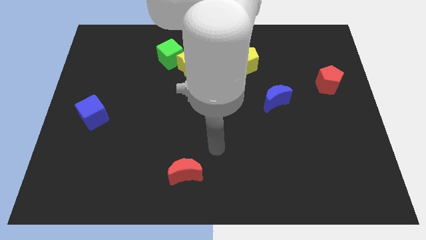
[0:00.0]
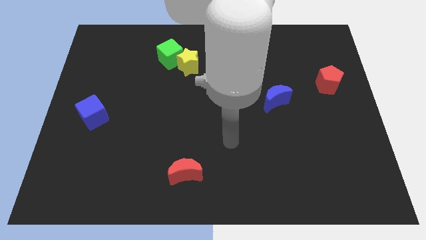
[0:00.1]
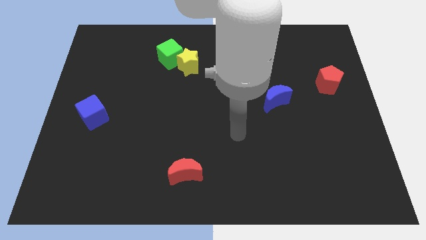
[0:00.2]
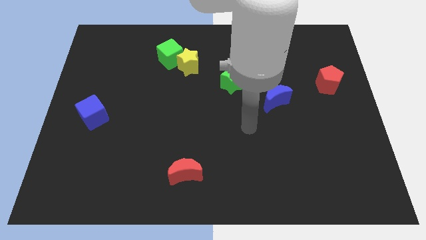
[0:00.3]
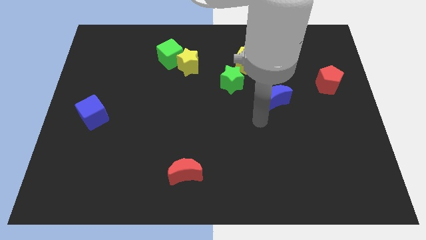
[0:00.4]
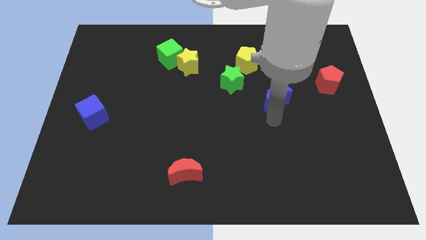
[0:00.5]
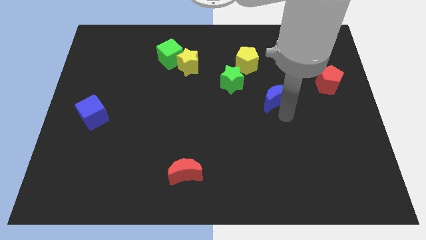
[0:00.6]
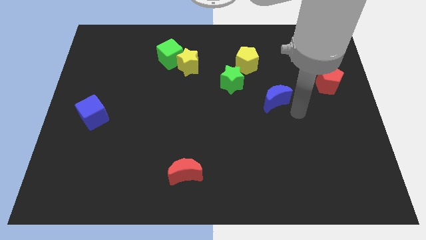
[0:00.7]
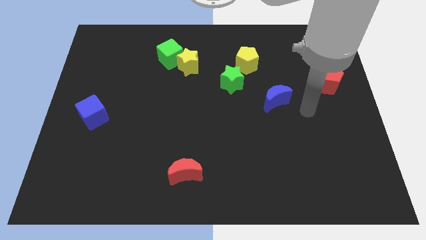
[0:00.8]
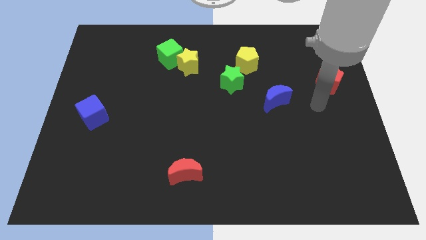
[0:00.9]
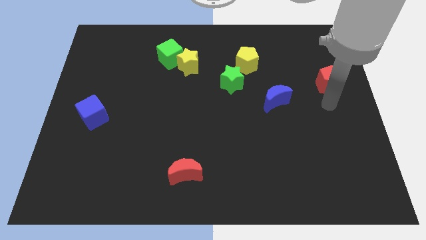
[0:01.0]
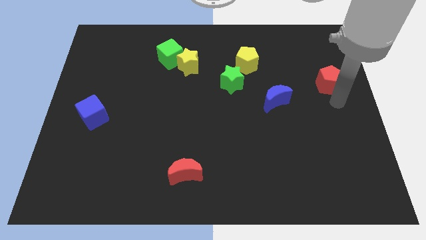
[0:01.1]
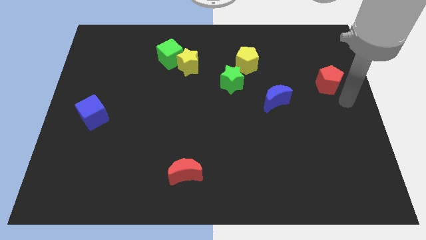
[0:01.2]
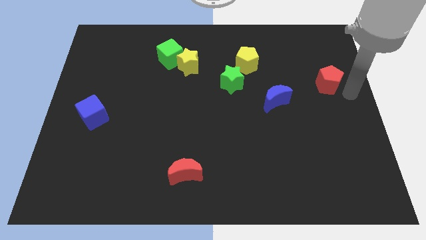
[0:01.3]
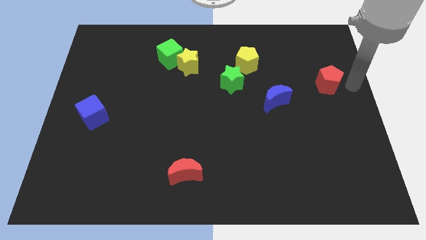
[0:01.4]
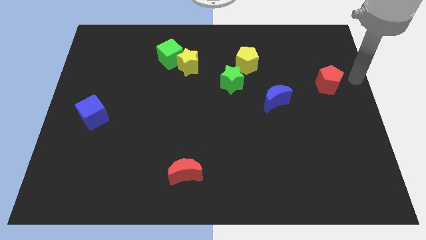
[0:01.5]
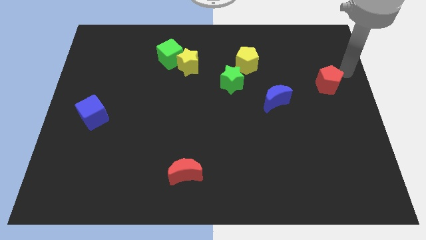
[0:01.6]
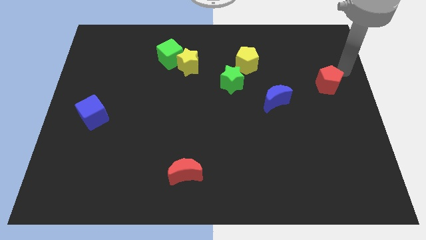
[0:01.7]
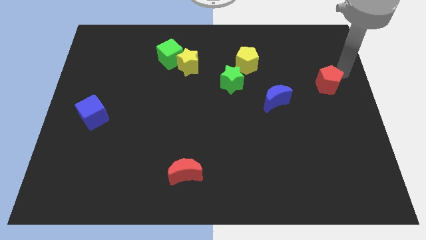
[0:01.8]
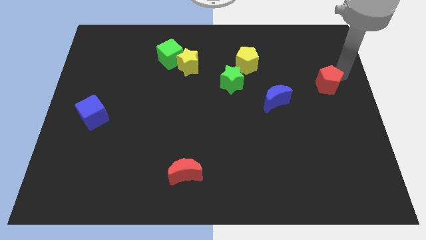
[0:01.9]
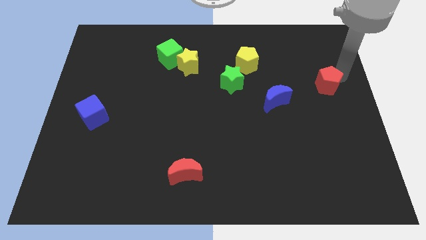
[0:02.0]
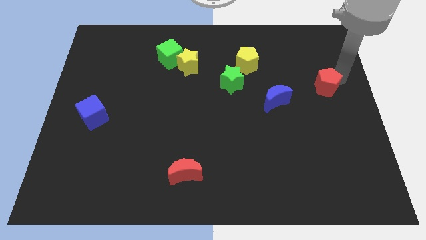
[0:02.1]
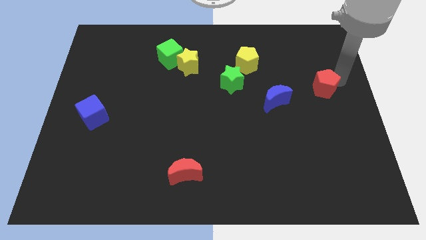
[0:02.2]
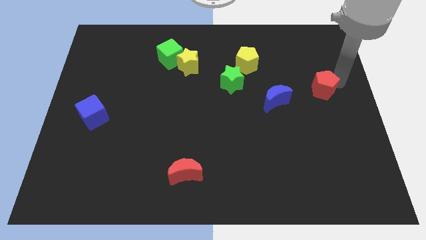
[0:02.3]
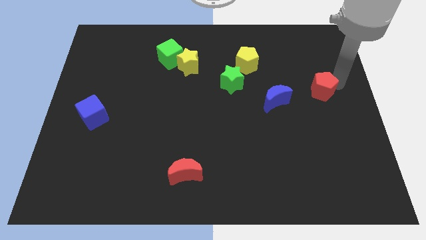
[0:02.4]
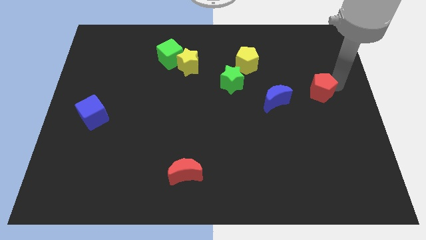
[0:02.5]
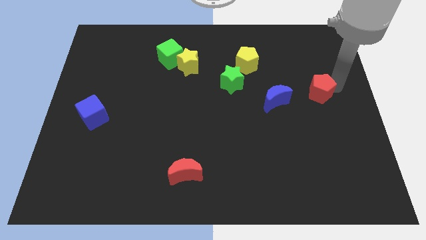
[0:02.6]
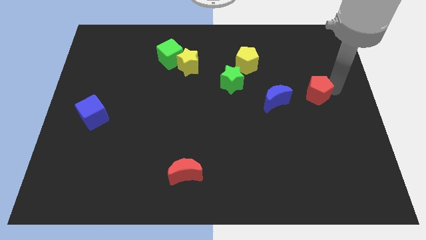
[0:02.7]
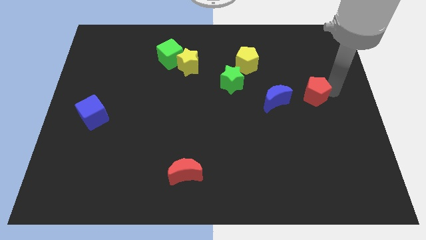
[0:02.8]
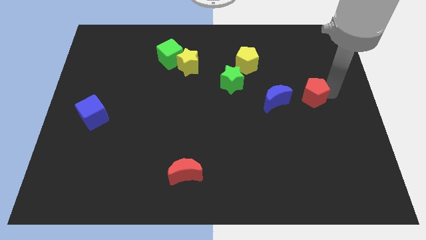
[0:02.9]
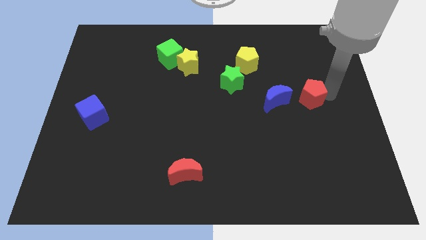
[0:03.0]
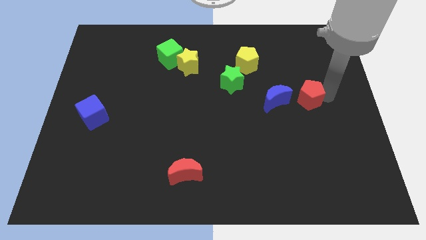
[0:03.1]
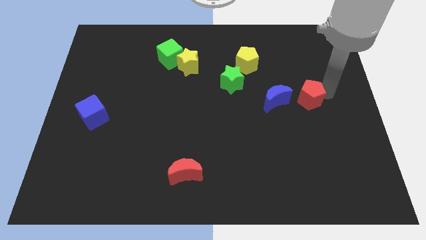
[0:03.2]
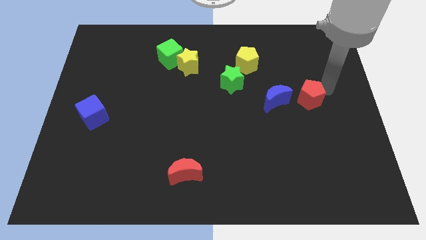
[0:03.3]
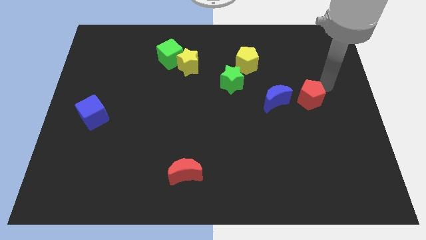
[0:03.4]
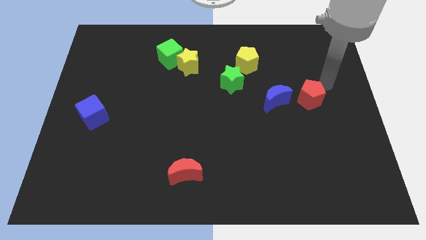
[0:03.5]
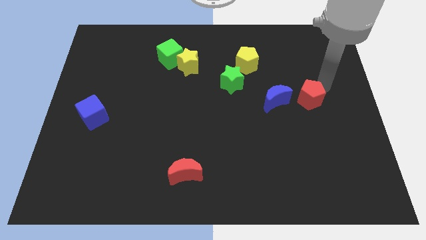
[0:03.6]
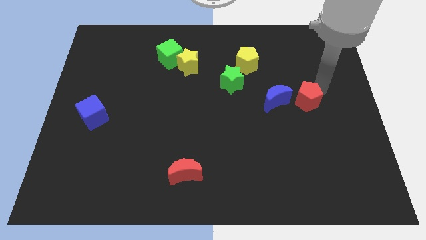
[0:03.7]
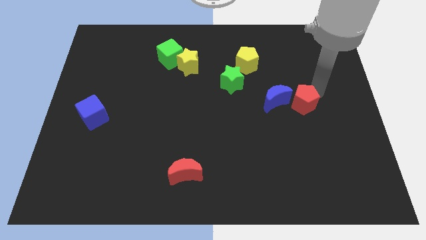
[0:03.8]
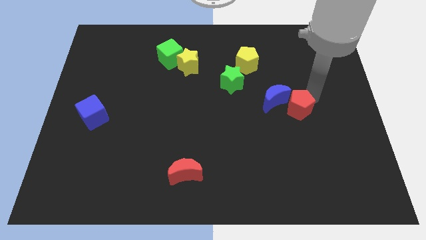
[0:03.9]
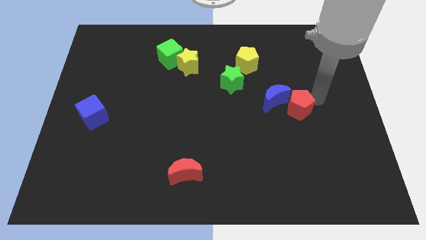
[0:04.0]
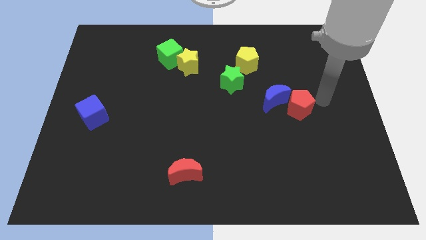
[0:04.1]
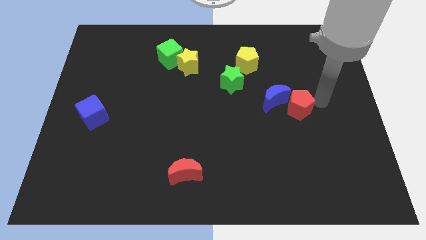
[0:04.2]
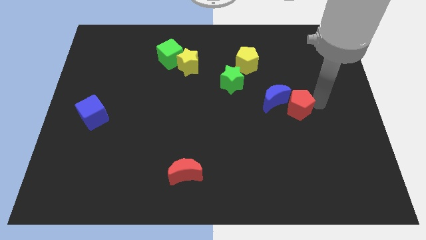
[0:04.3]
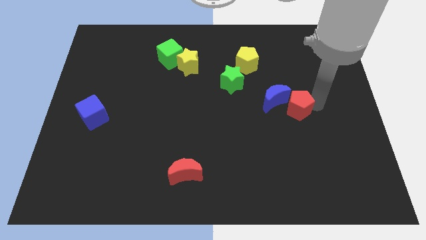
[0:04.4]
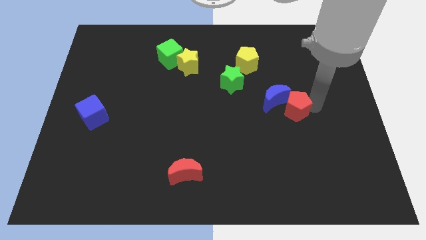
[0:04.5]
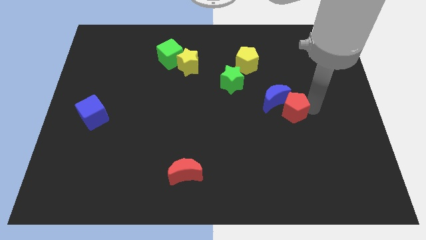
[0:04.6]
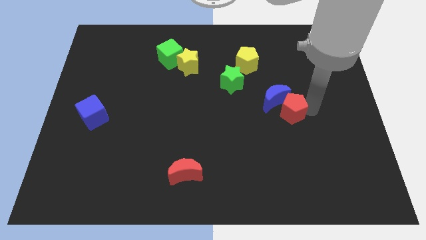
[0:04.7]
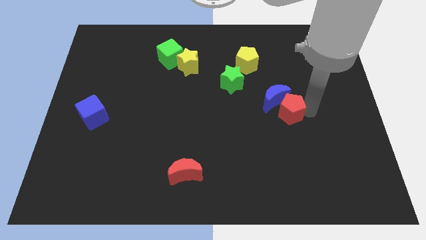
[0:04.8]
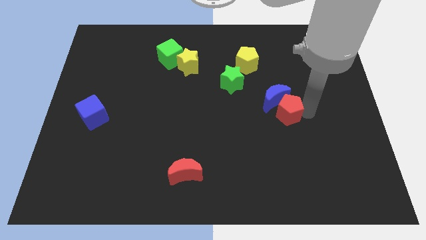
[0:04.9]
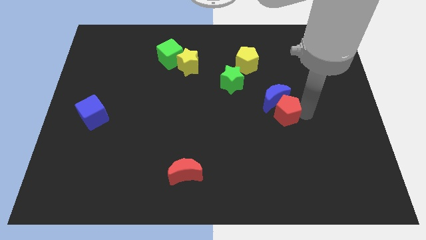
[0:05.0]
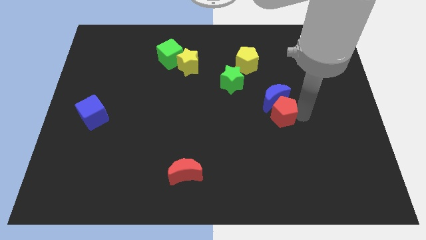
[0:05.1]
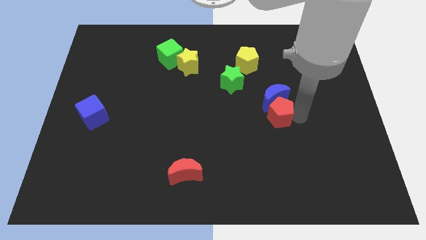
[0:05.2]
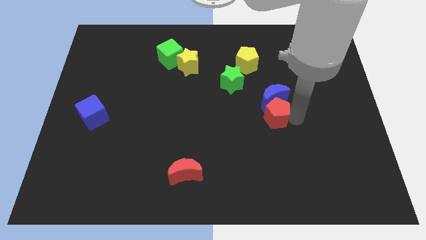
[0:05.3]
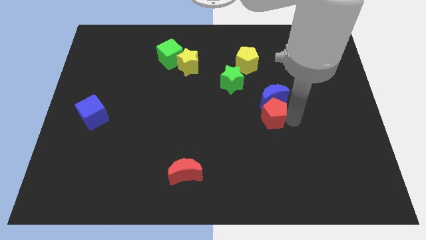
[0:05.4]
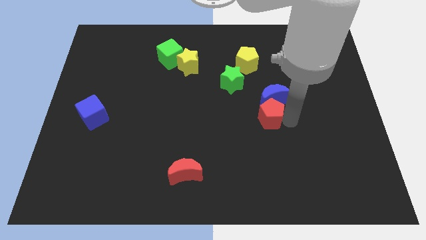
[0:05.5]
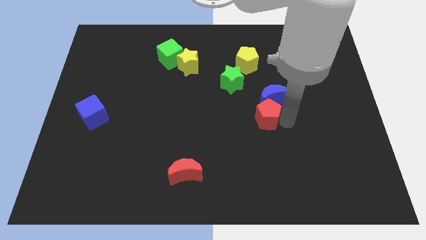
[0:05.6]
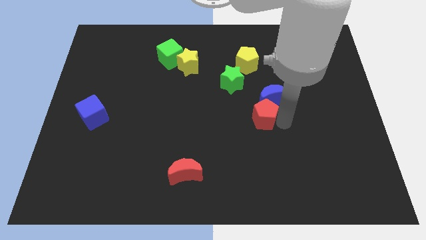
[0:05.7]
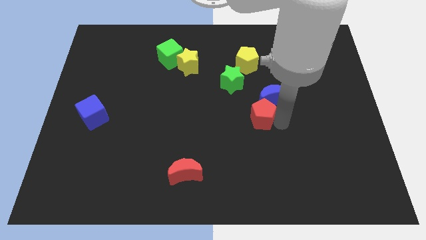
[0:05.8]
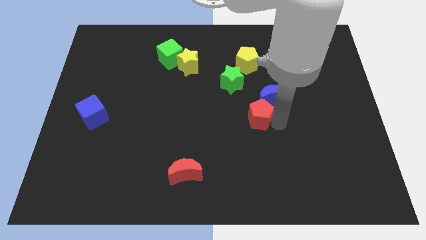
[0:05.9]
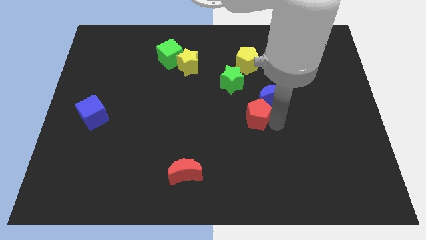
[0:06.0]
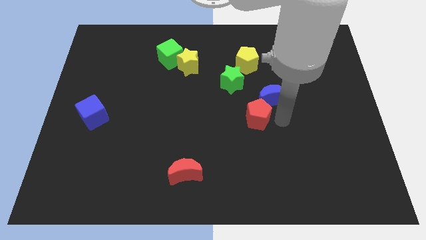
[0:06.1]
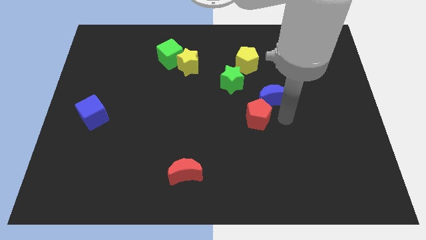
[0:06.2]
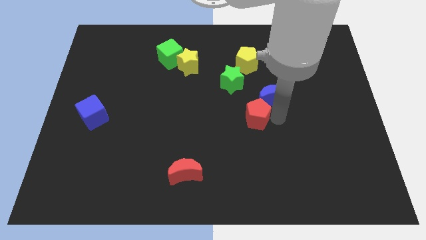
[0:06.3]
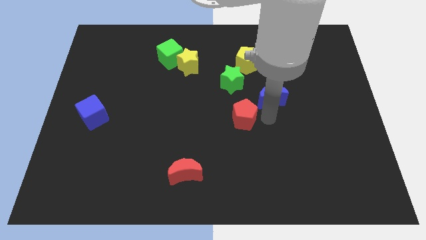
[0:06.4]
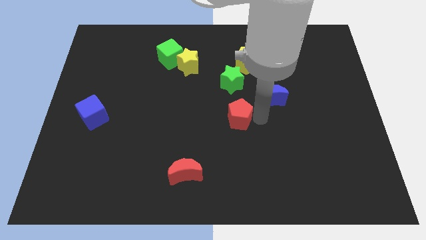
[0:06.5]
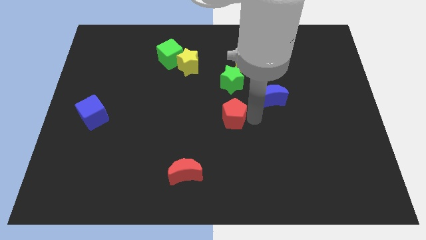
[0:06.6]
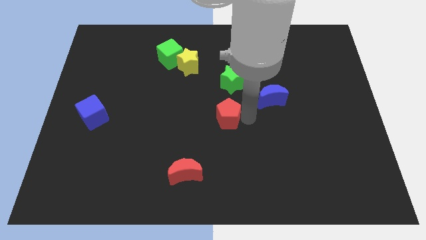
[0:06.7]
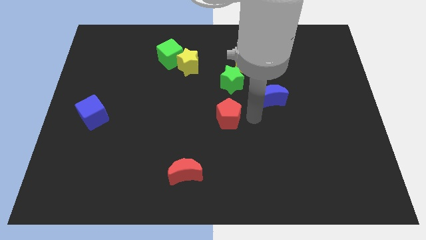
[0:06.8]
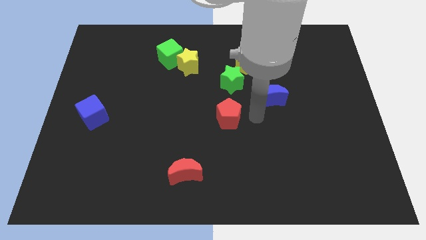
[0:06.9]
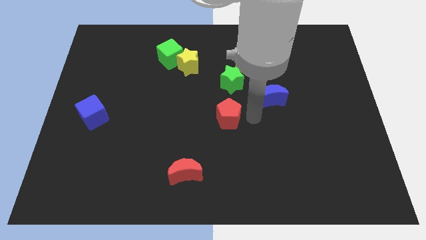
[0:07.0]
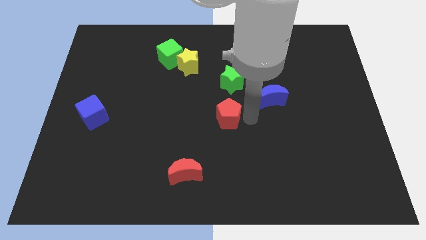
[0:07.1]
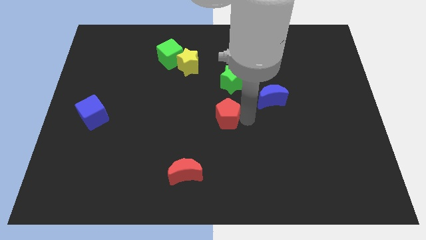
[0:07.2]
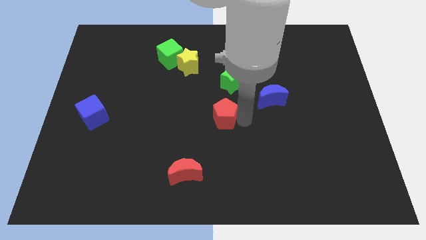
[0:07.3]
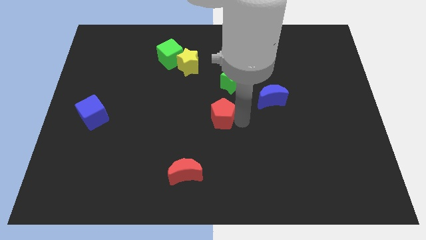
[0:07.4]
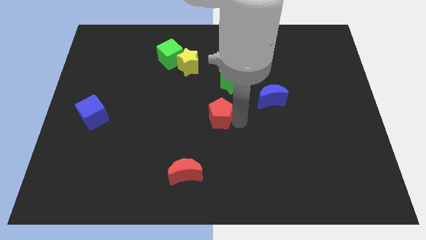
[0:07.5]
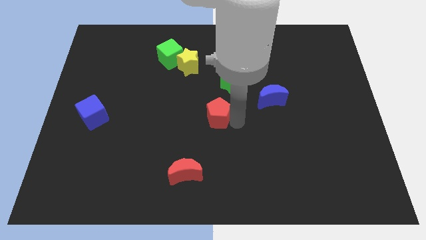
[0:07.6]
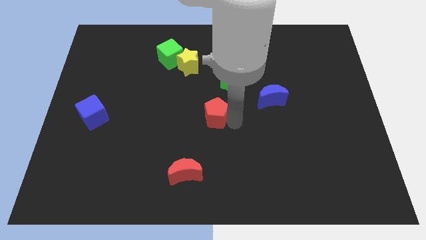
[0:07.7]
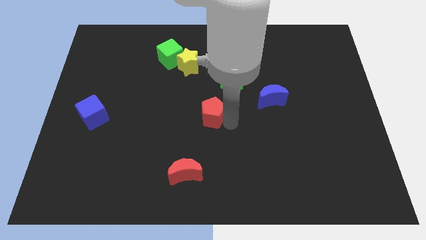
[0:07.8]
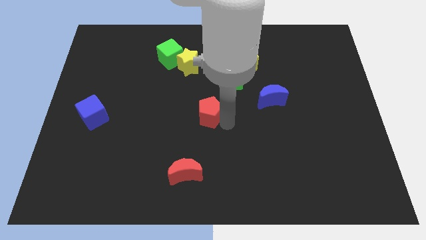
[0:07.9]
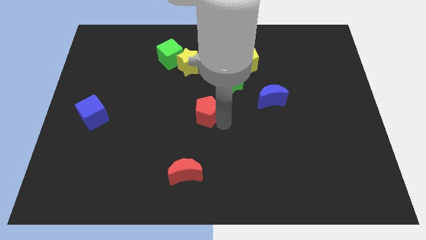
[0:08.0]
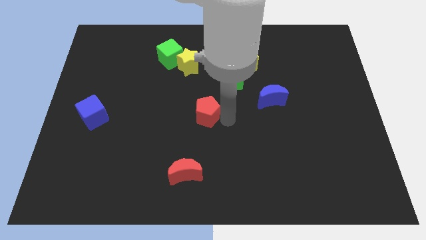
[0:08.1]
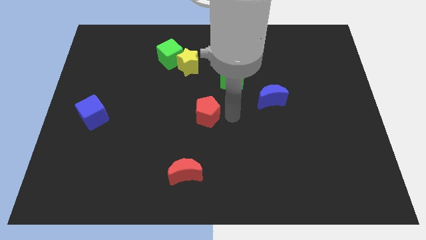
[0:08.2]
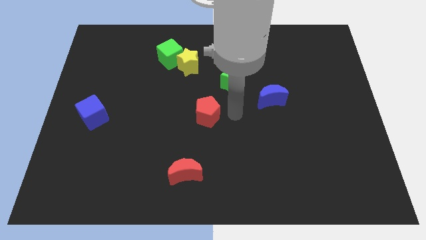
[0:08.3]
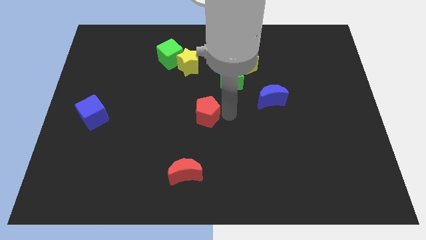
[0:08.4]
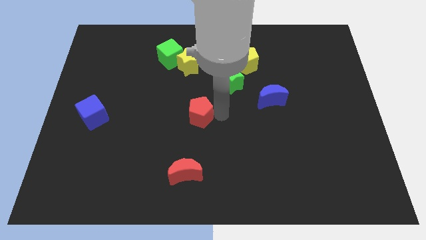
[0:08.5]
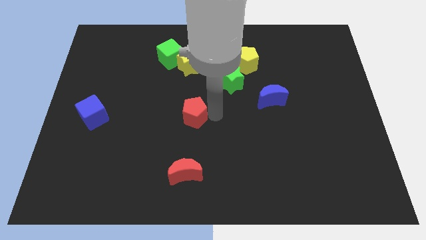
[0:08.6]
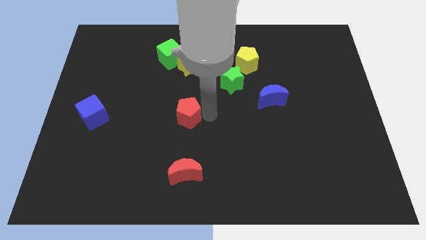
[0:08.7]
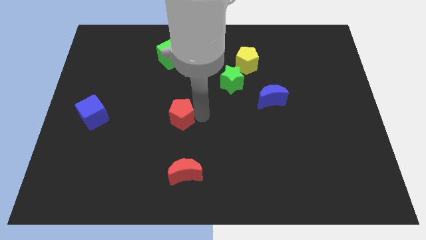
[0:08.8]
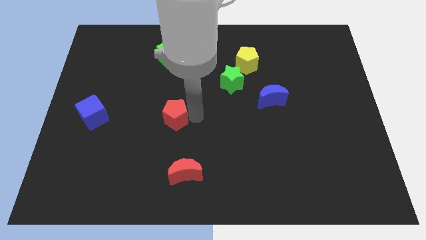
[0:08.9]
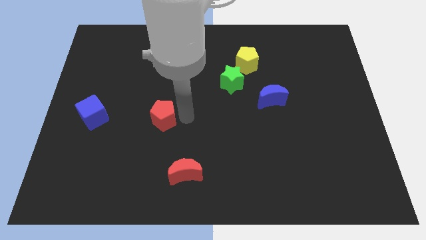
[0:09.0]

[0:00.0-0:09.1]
slide the red pentagon to the right side of the blue cube
